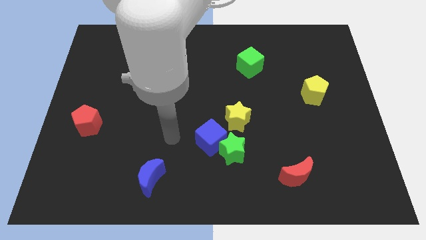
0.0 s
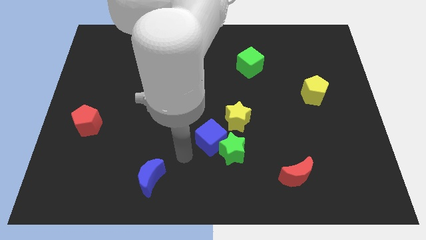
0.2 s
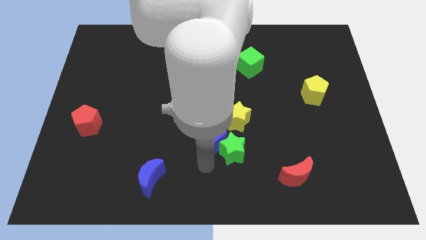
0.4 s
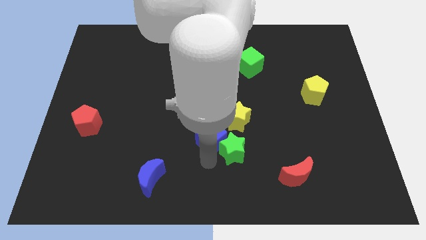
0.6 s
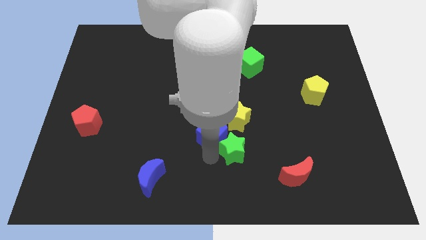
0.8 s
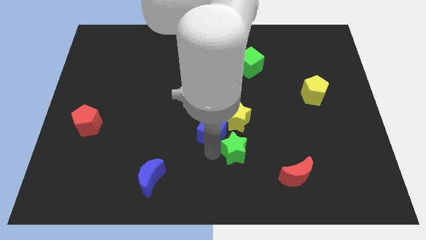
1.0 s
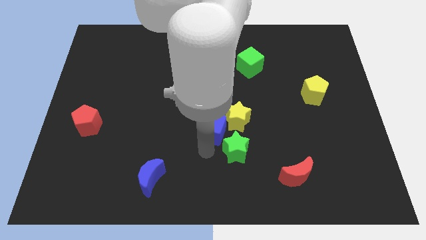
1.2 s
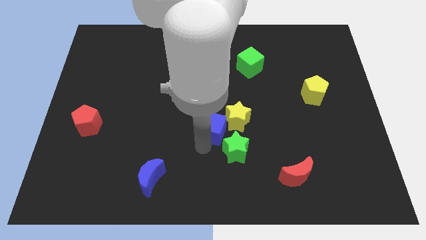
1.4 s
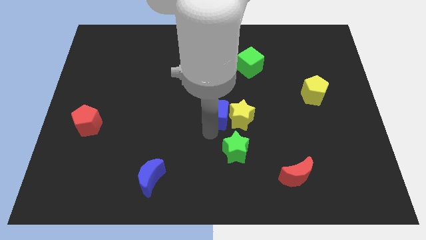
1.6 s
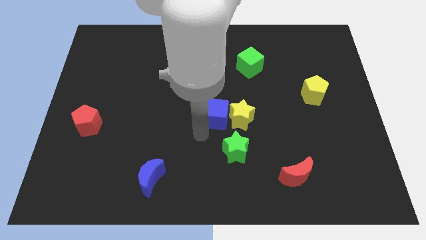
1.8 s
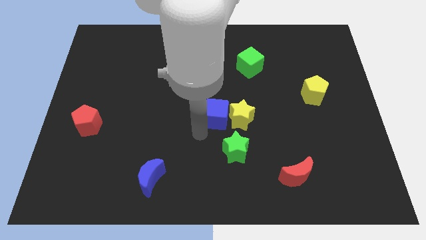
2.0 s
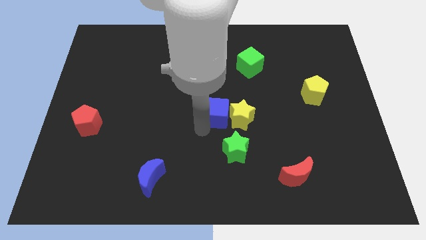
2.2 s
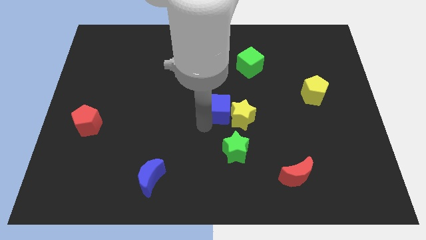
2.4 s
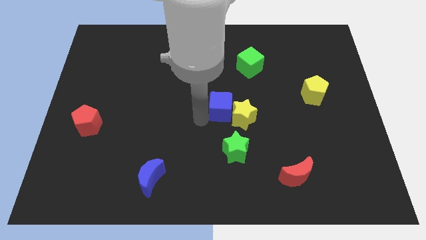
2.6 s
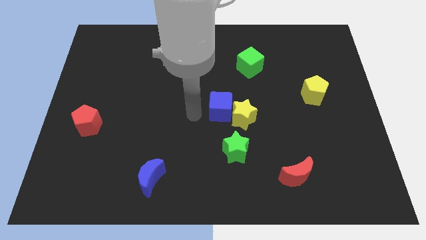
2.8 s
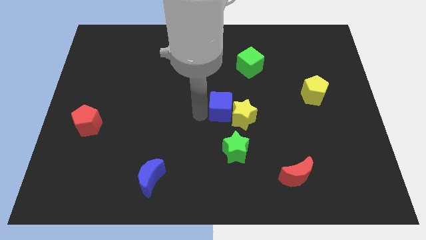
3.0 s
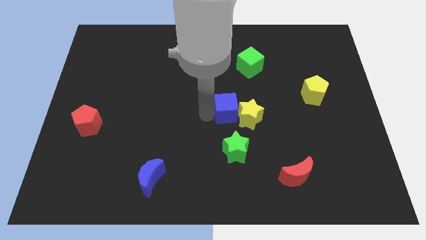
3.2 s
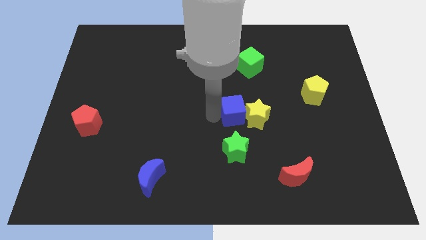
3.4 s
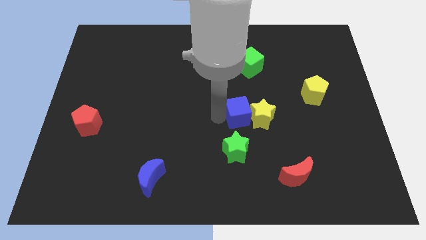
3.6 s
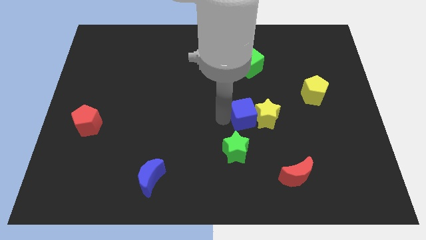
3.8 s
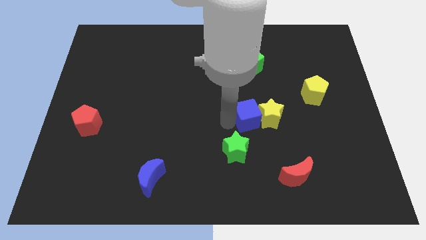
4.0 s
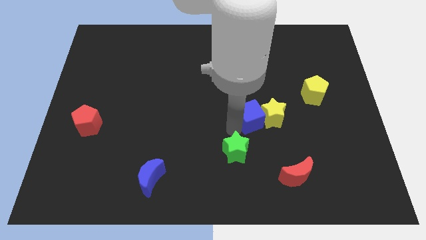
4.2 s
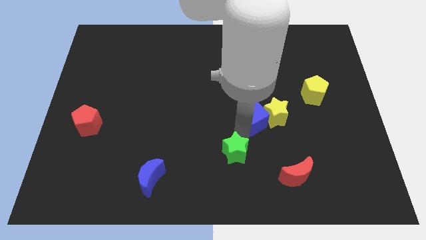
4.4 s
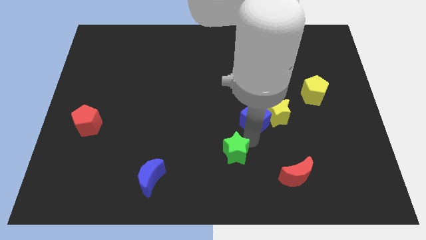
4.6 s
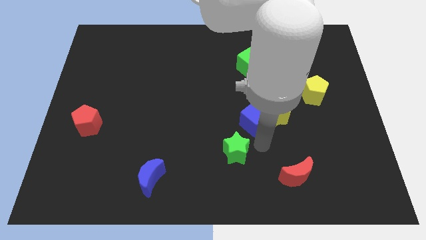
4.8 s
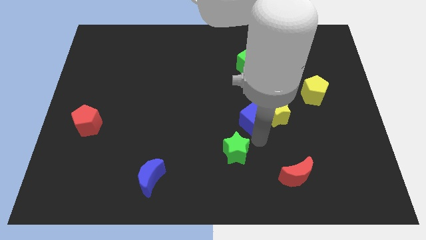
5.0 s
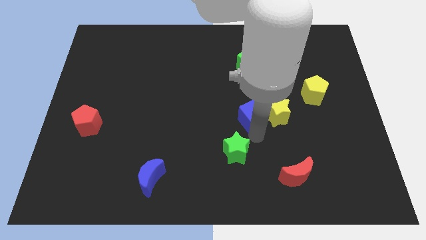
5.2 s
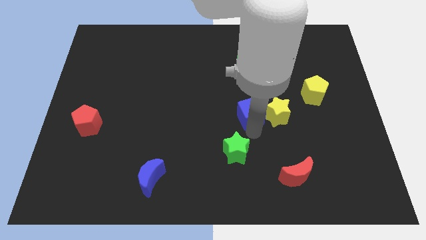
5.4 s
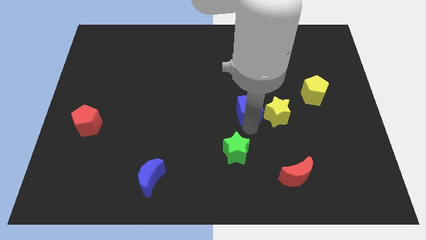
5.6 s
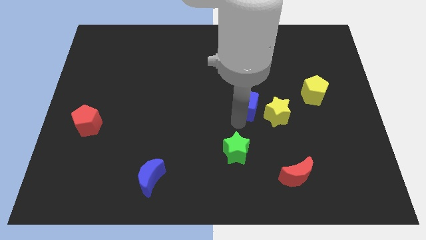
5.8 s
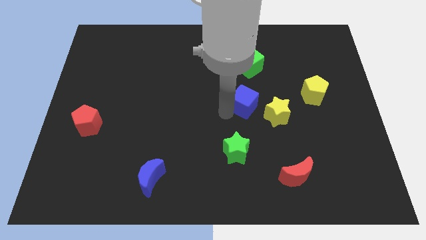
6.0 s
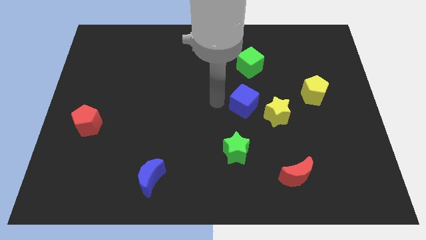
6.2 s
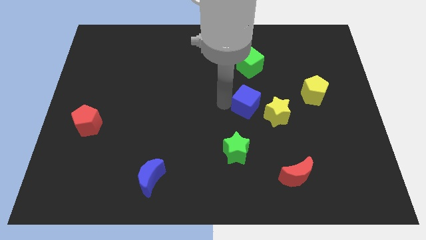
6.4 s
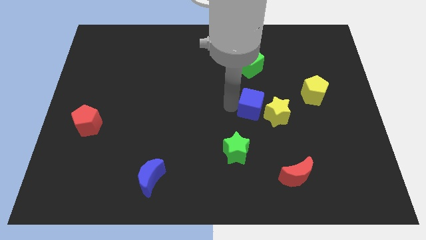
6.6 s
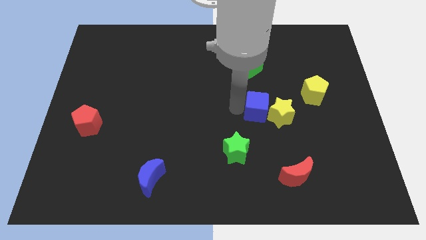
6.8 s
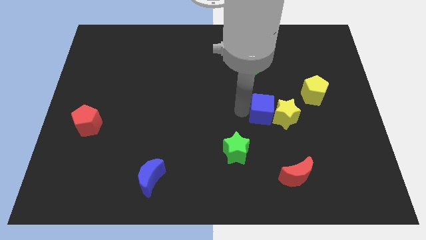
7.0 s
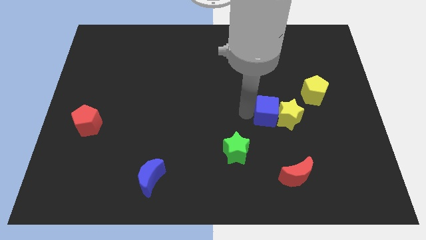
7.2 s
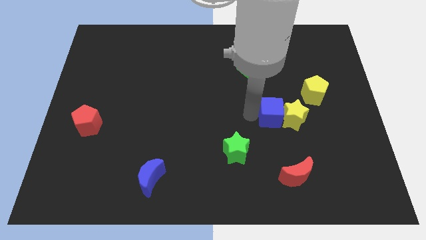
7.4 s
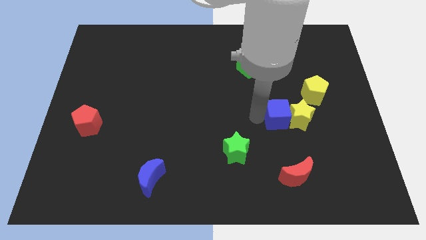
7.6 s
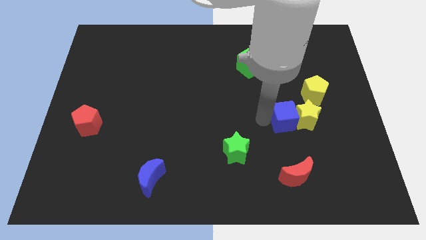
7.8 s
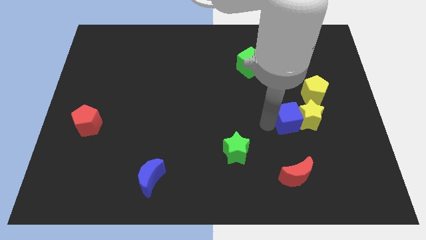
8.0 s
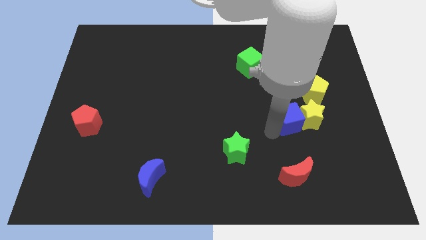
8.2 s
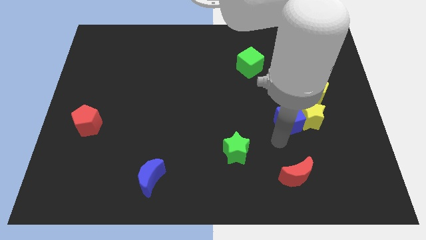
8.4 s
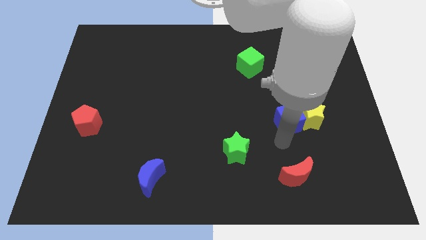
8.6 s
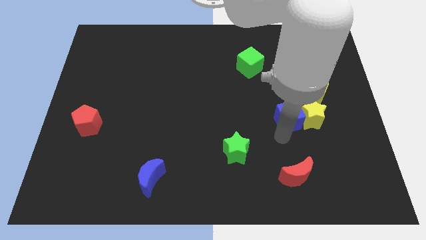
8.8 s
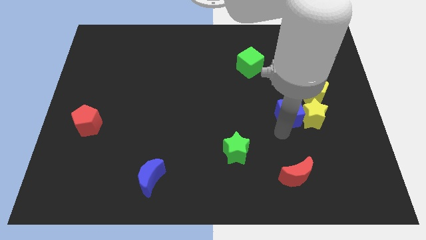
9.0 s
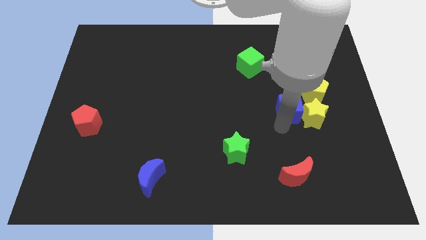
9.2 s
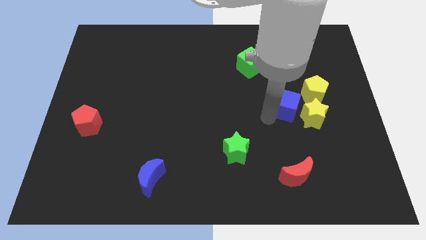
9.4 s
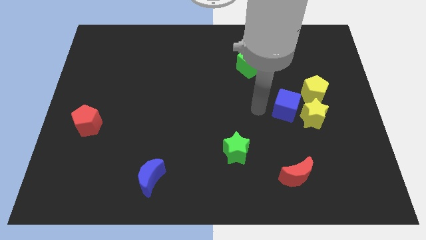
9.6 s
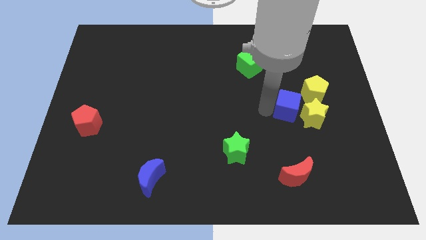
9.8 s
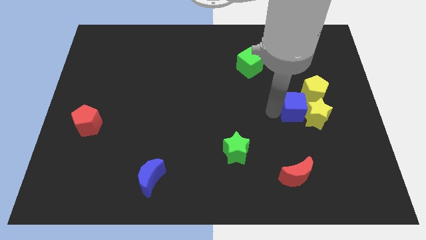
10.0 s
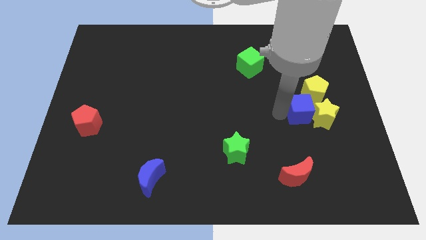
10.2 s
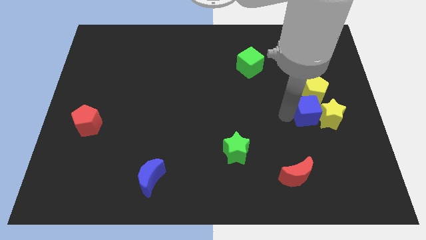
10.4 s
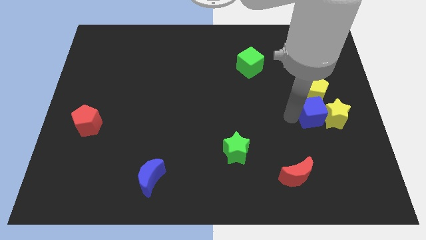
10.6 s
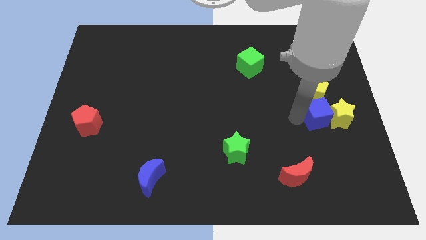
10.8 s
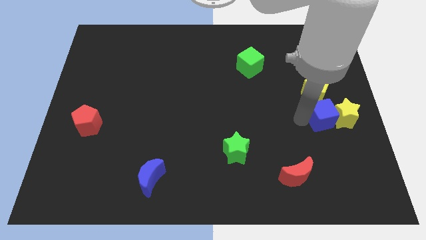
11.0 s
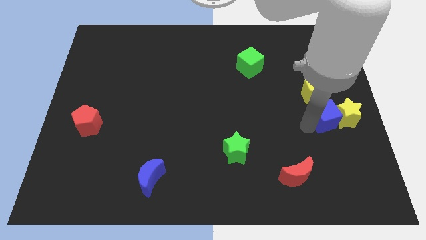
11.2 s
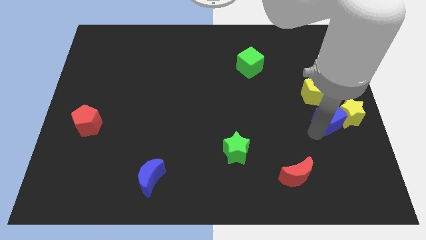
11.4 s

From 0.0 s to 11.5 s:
move the blue cube to the right side of the board
